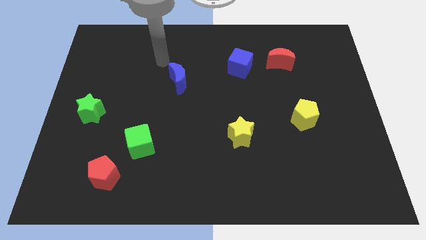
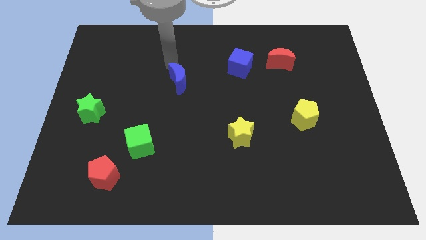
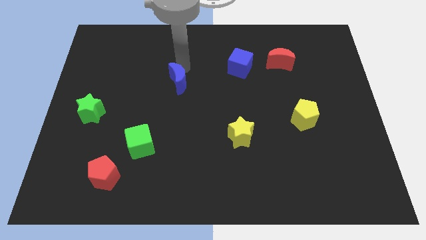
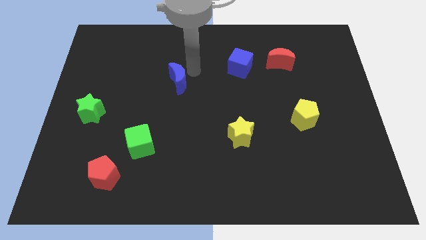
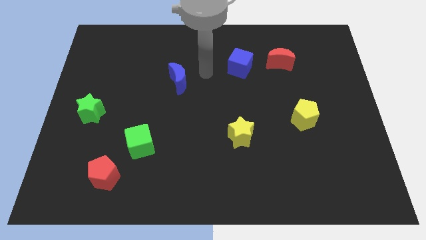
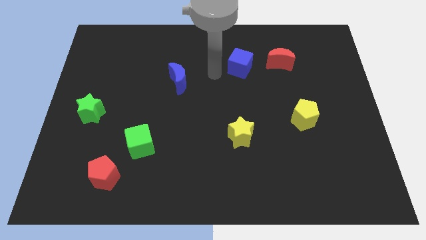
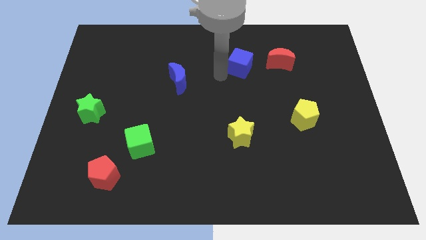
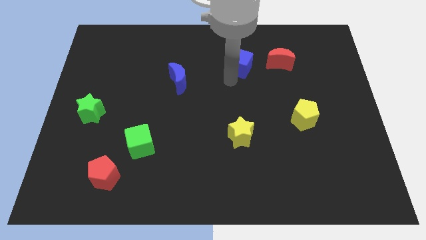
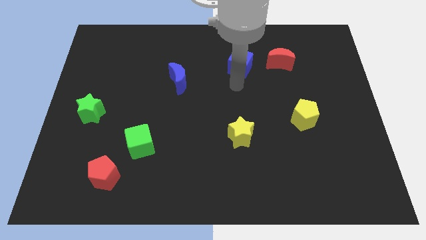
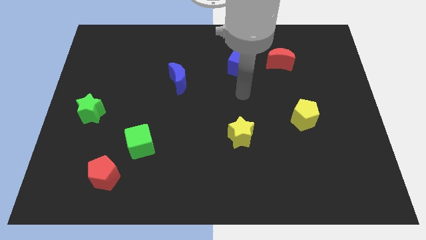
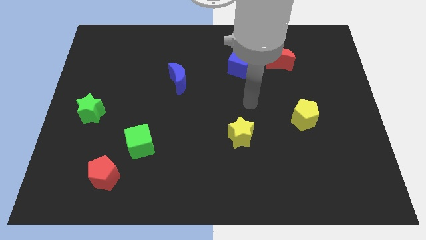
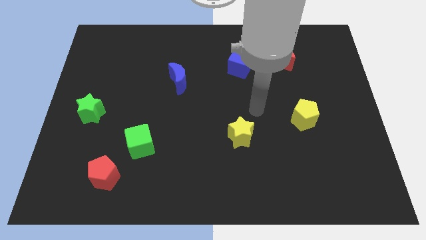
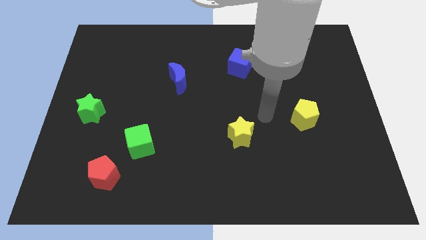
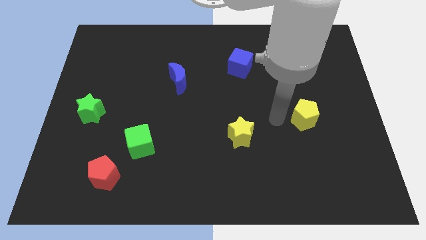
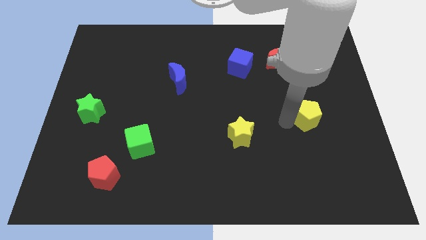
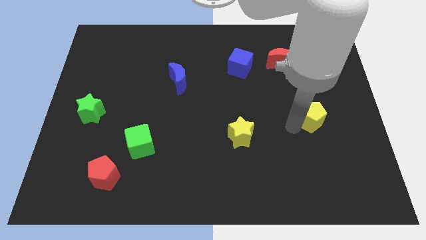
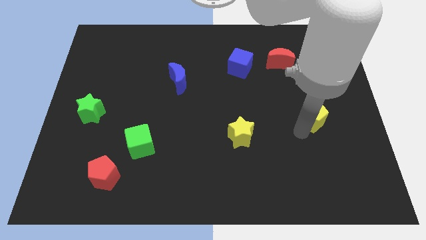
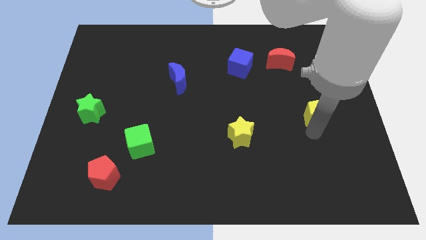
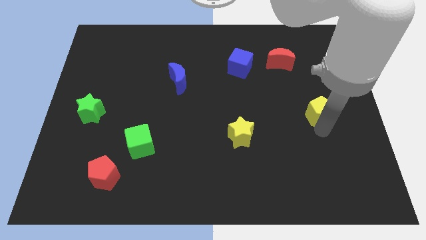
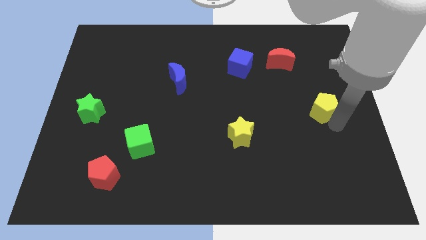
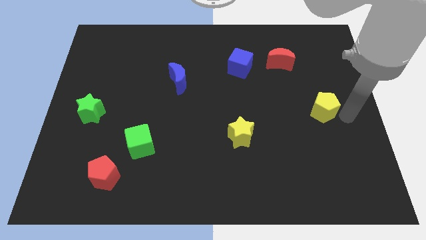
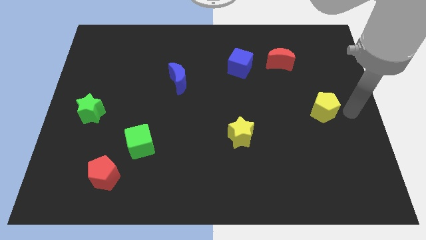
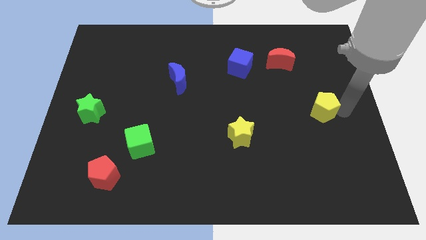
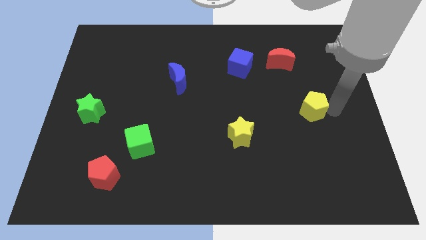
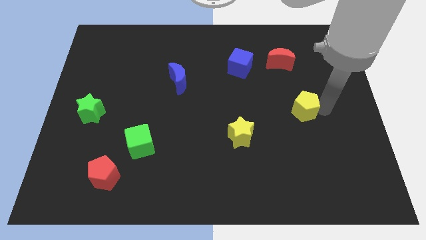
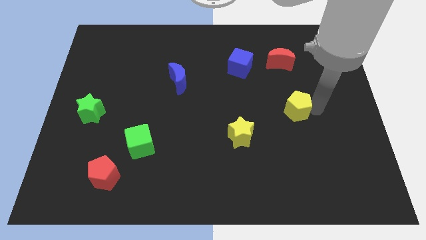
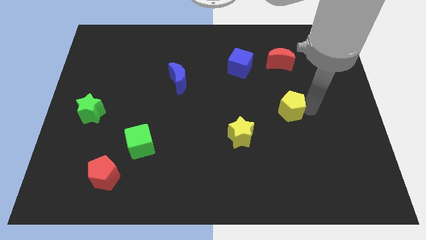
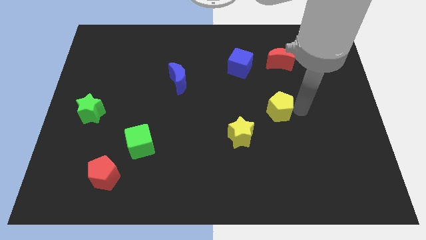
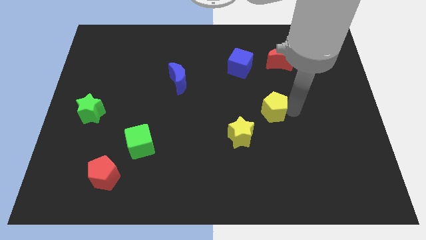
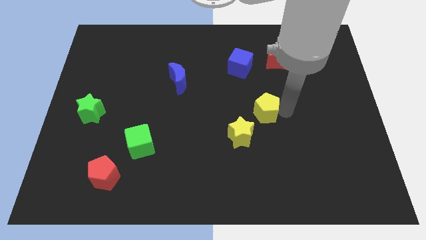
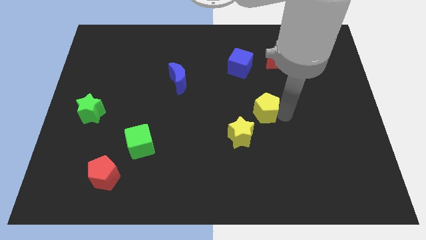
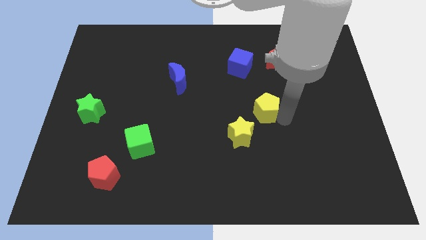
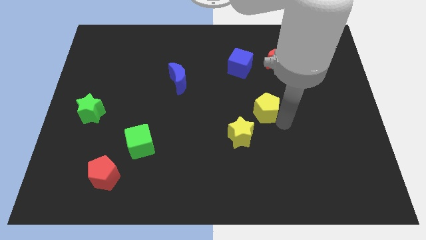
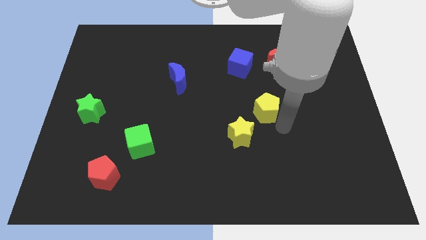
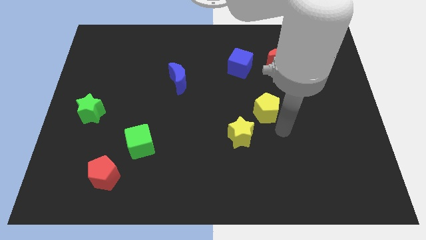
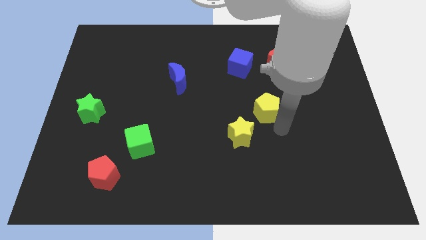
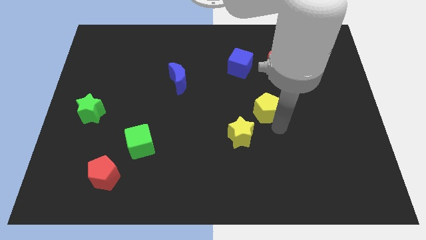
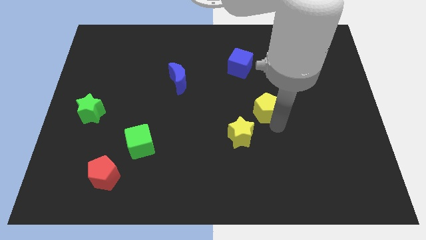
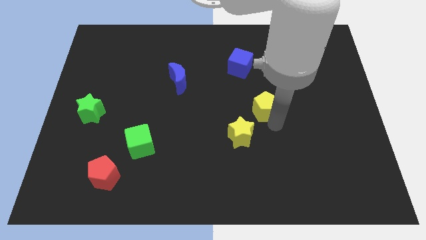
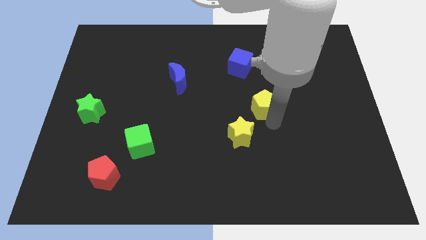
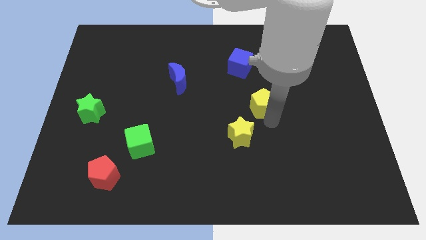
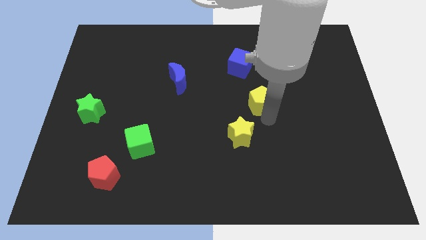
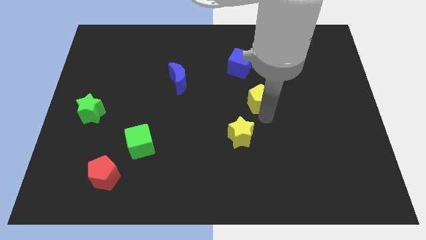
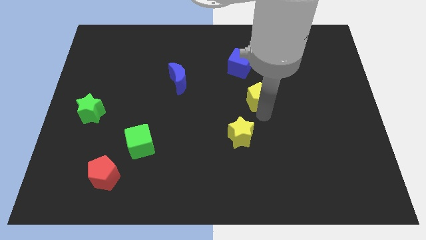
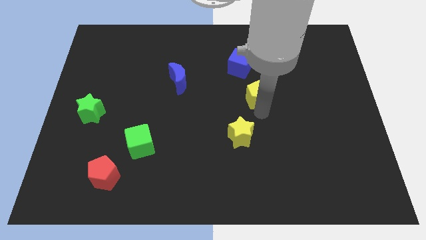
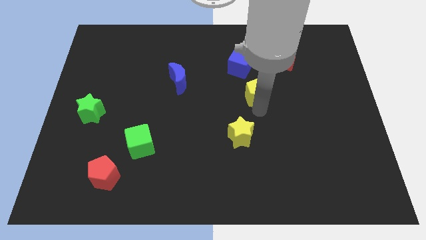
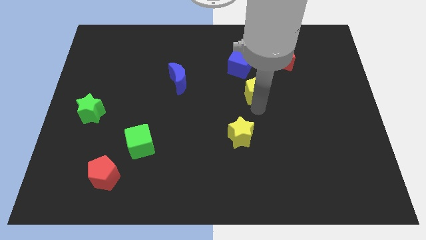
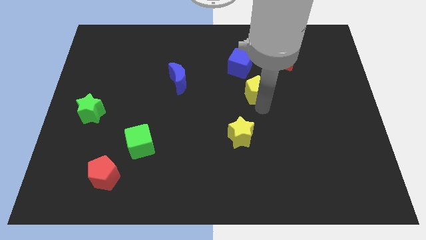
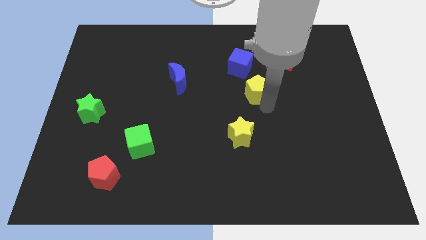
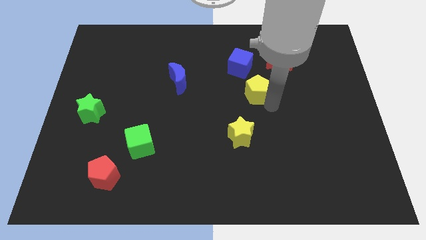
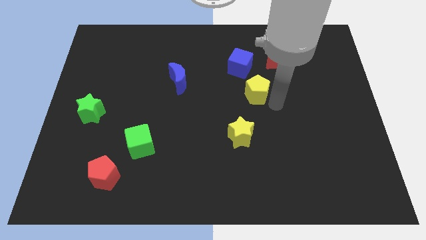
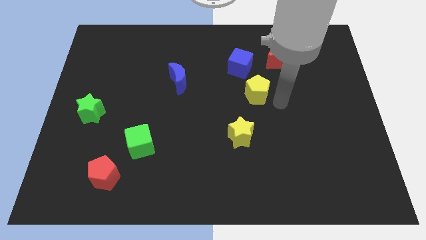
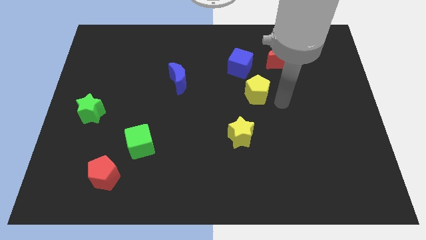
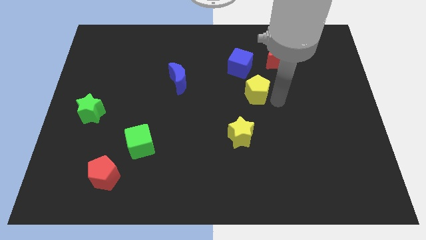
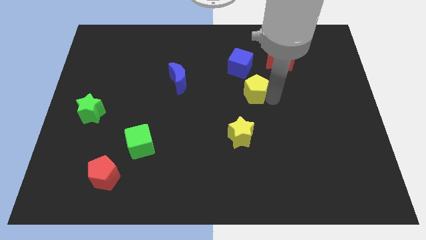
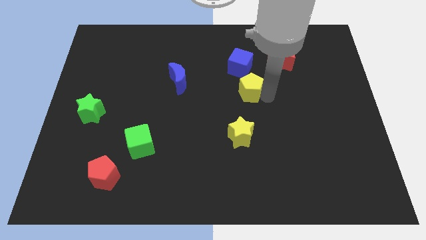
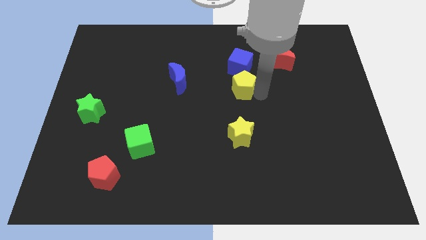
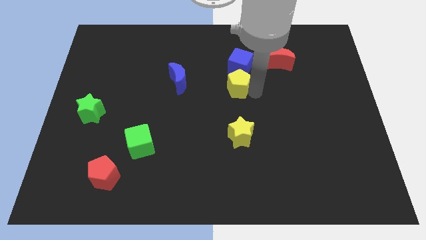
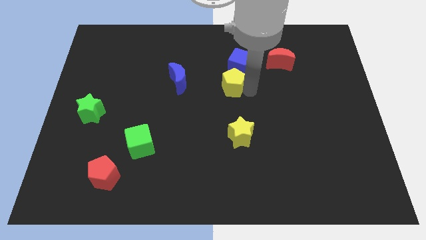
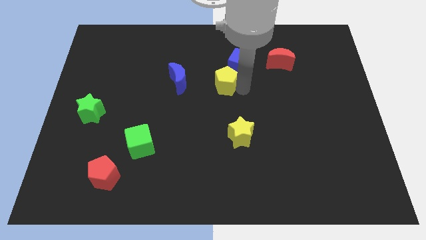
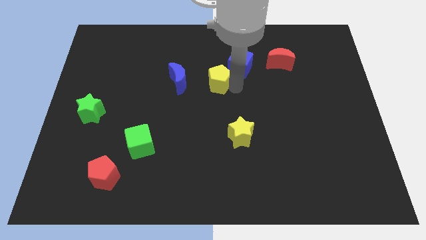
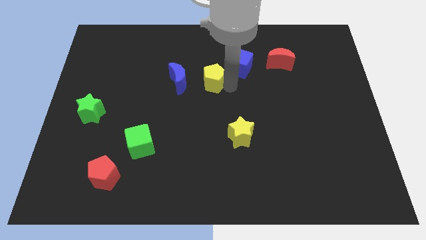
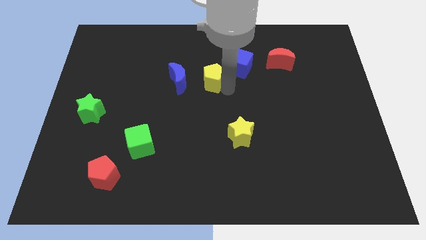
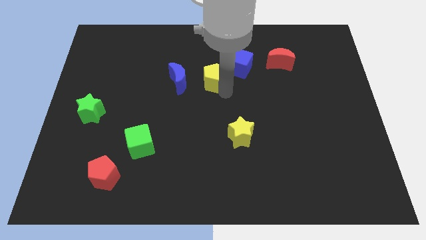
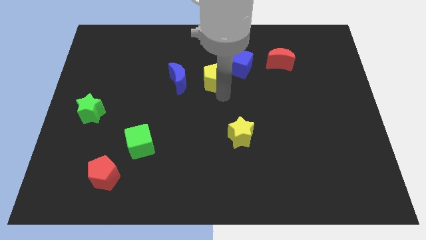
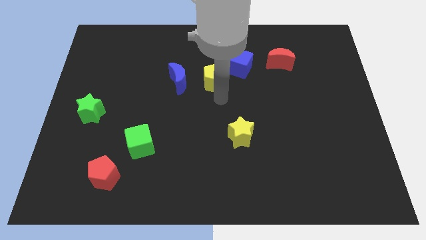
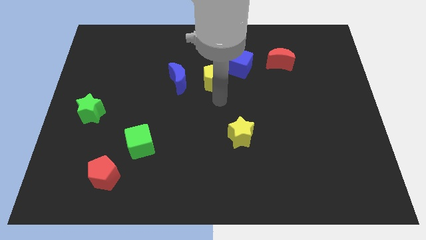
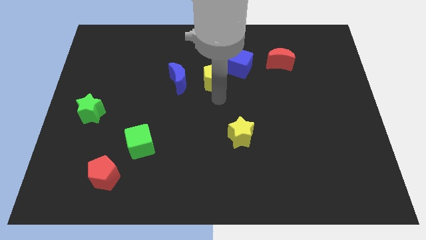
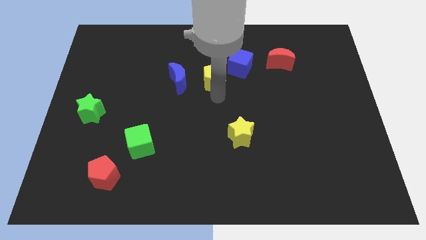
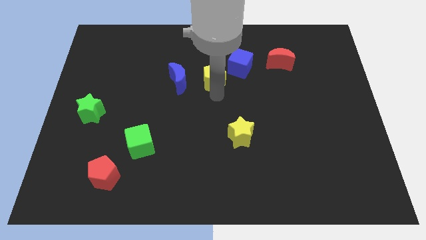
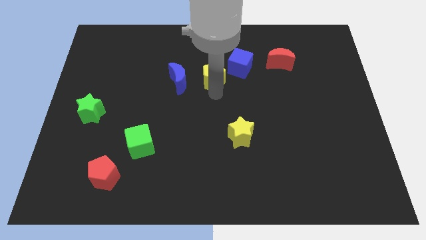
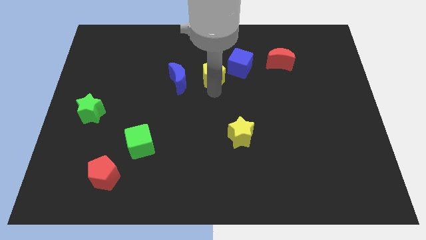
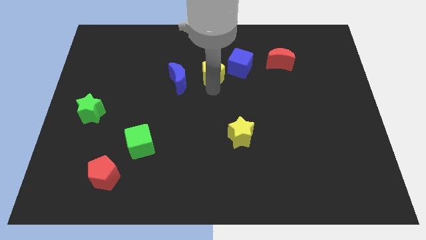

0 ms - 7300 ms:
slide the yellow pentagon diagonally up and to the right of the blue moon
